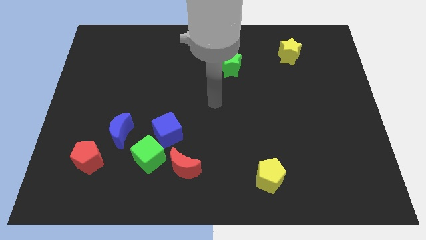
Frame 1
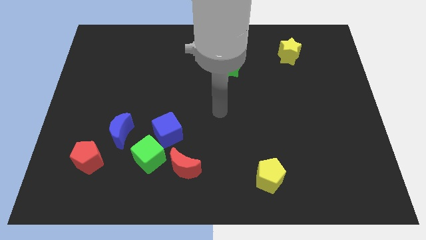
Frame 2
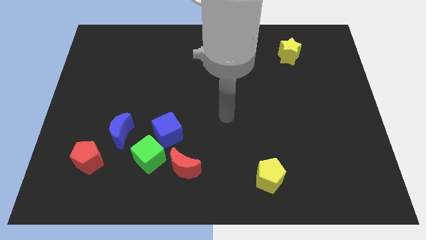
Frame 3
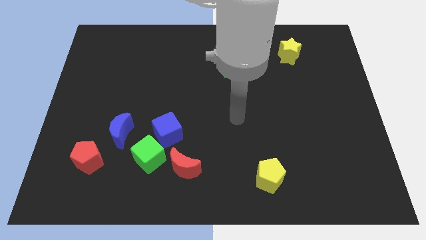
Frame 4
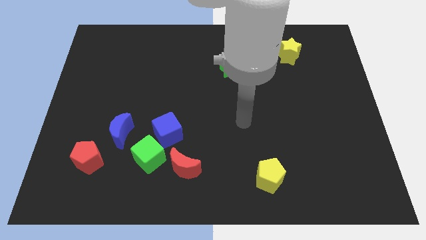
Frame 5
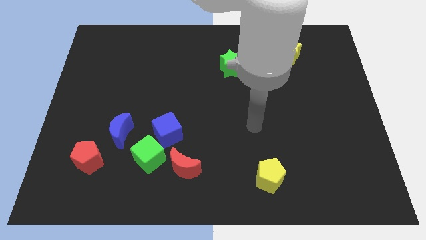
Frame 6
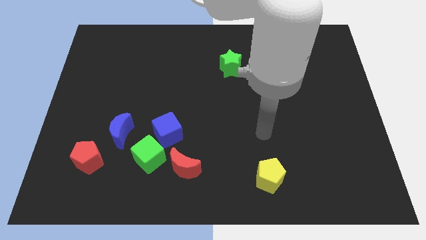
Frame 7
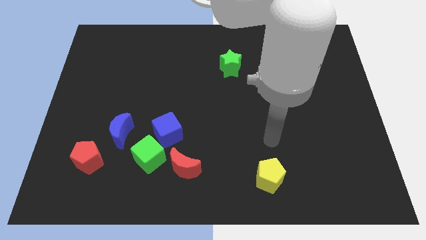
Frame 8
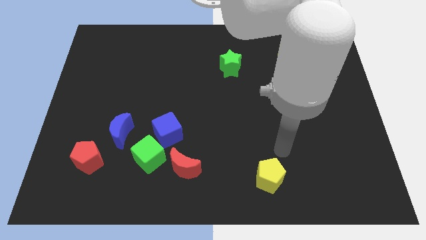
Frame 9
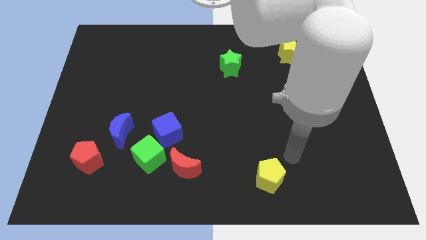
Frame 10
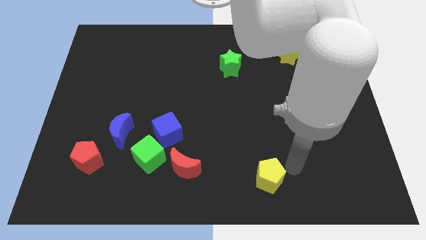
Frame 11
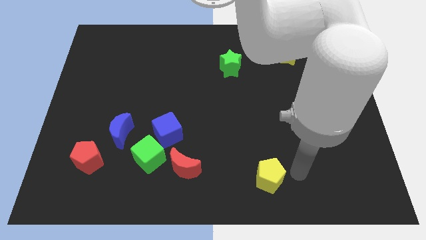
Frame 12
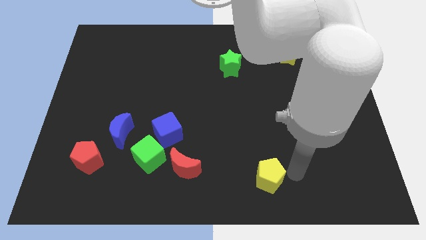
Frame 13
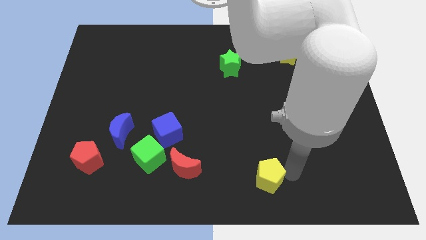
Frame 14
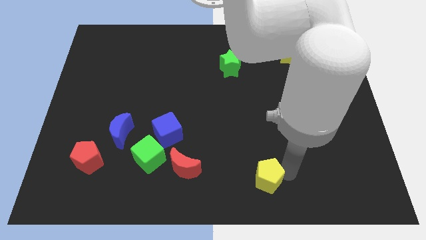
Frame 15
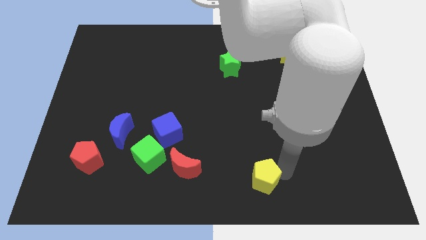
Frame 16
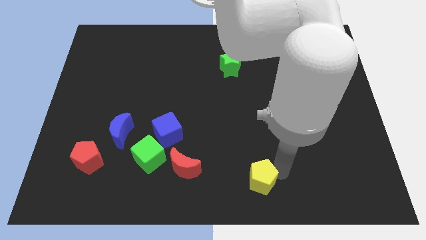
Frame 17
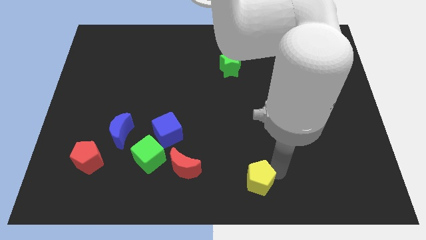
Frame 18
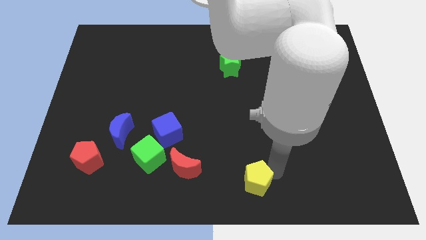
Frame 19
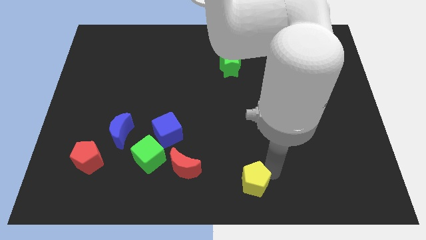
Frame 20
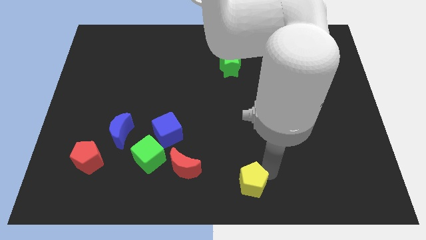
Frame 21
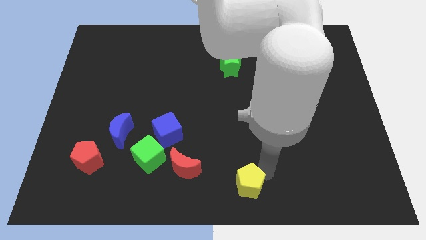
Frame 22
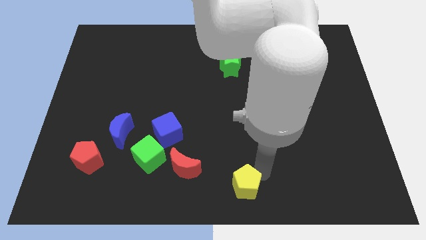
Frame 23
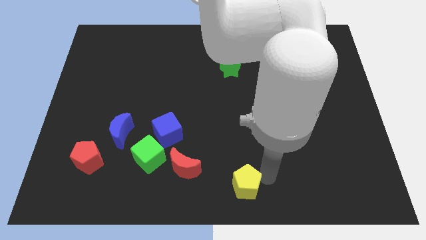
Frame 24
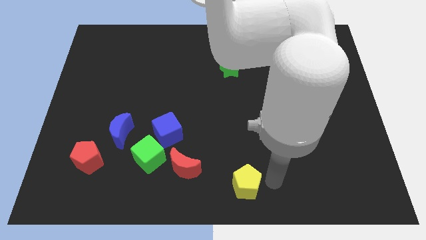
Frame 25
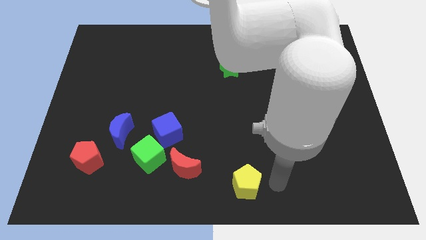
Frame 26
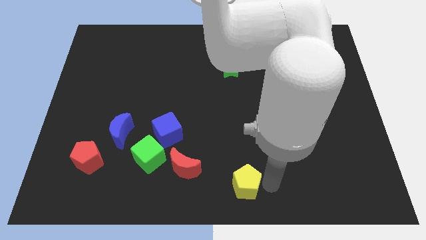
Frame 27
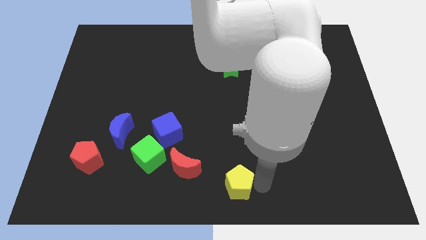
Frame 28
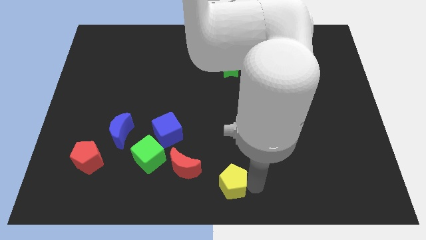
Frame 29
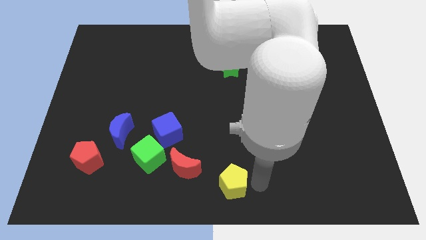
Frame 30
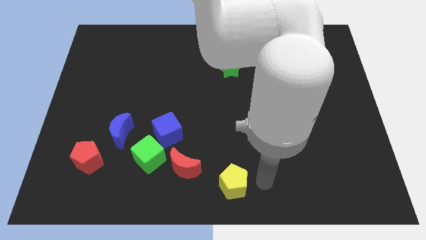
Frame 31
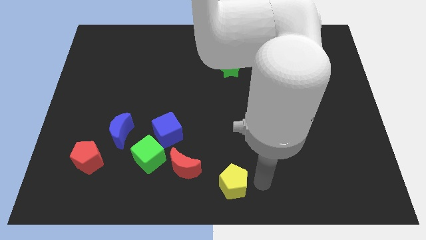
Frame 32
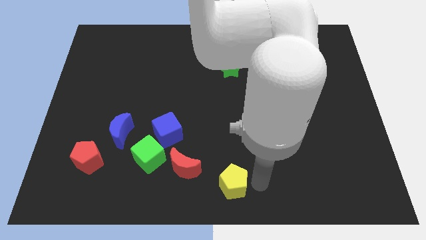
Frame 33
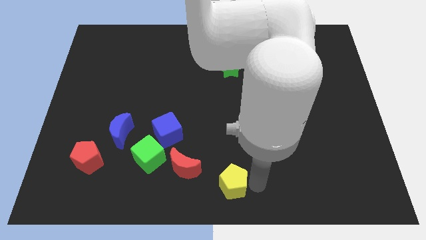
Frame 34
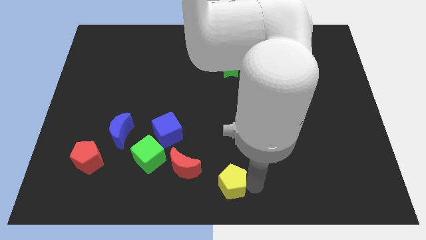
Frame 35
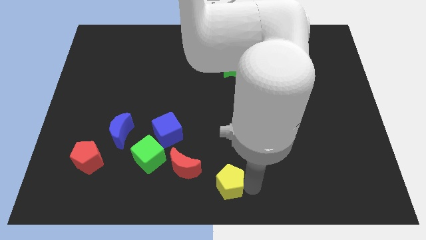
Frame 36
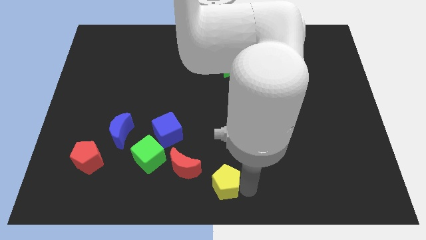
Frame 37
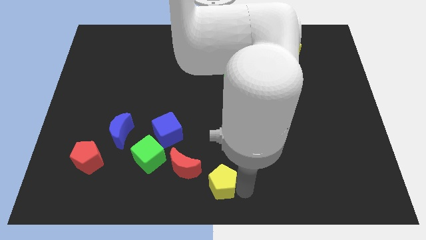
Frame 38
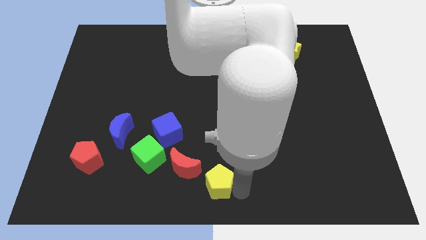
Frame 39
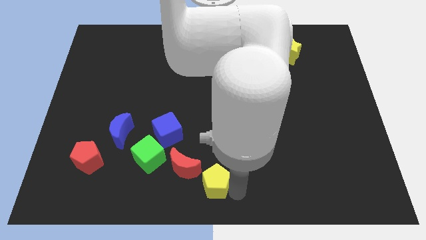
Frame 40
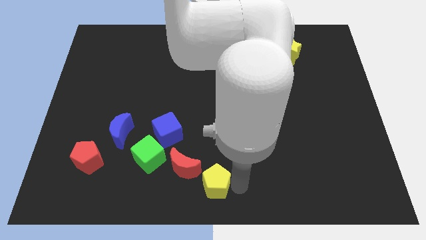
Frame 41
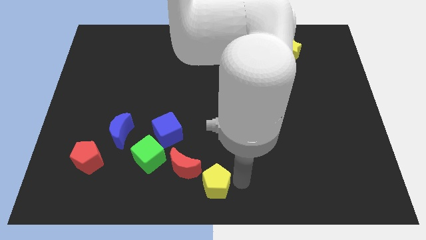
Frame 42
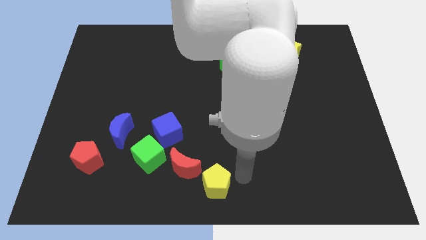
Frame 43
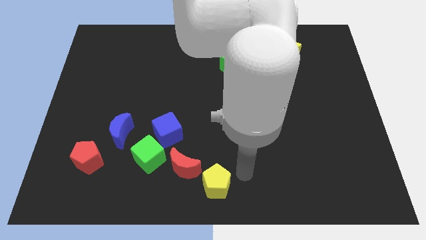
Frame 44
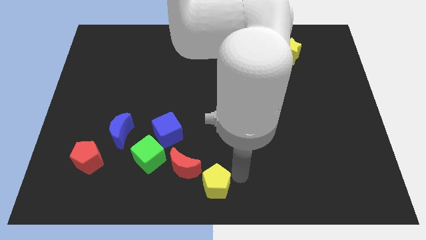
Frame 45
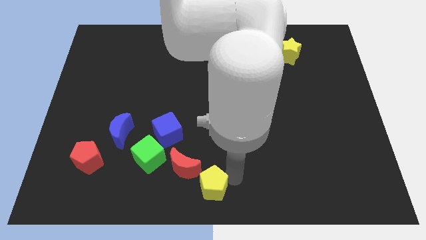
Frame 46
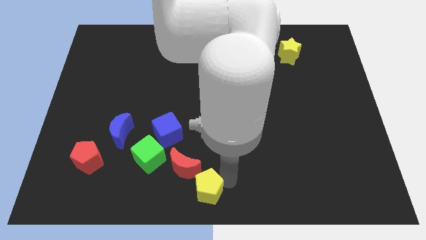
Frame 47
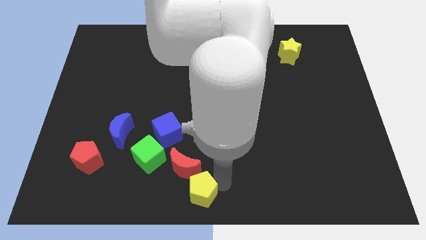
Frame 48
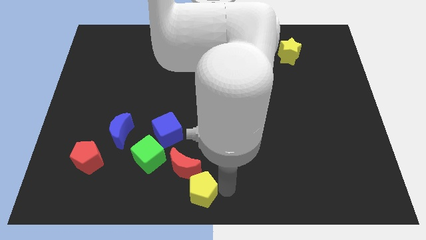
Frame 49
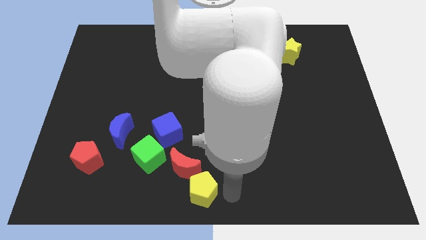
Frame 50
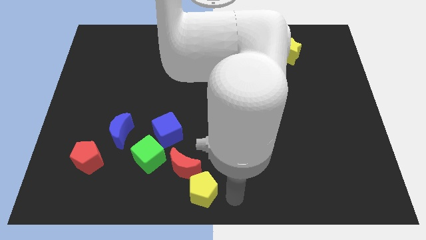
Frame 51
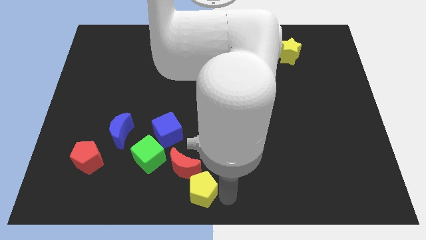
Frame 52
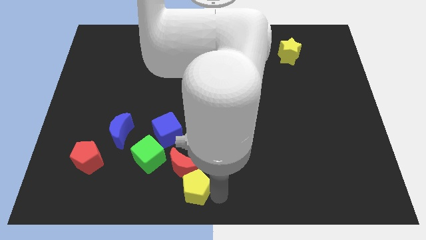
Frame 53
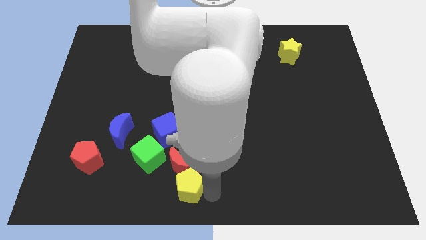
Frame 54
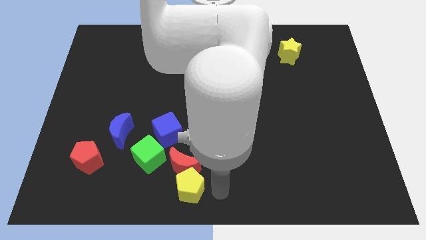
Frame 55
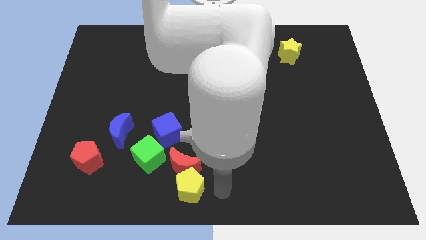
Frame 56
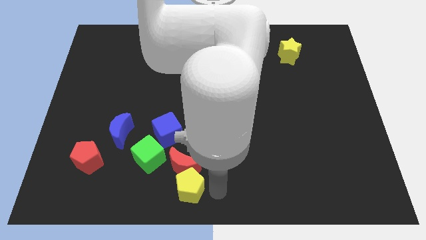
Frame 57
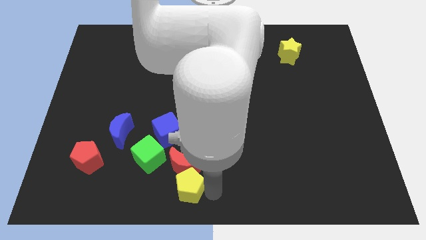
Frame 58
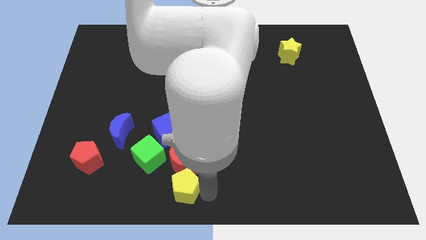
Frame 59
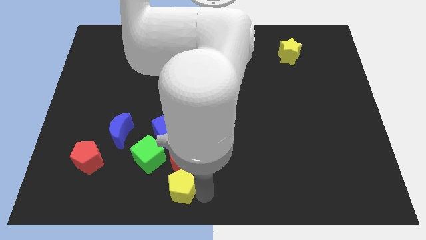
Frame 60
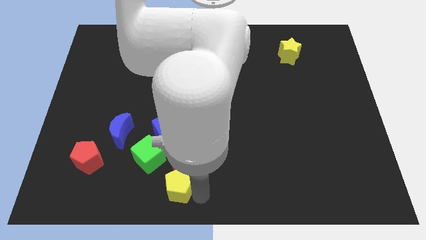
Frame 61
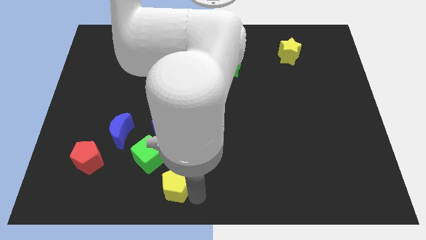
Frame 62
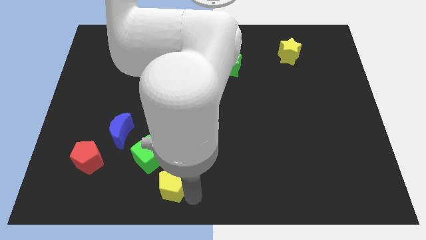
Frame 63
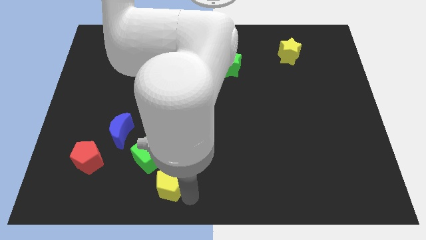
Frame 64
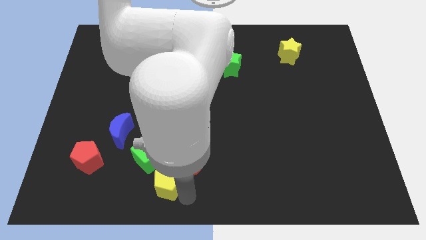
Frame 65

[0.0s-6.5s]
push the yellow pentagon just left of the red moon
